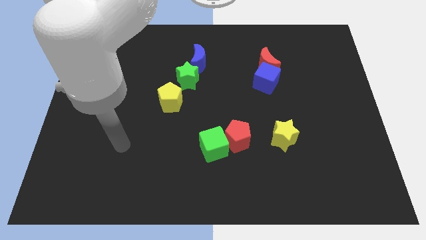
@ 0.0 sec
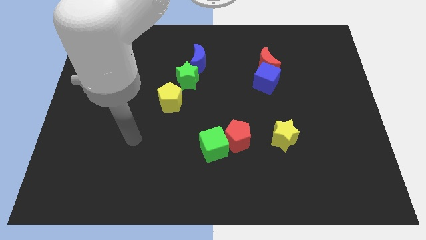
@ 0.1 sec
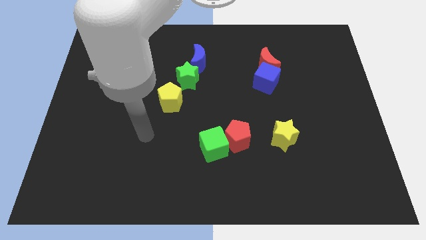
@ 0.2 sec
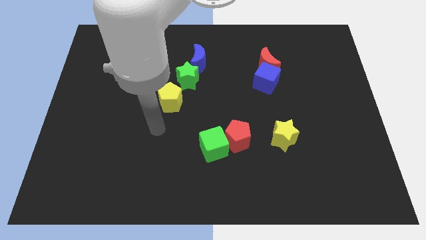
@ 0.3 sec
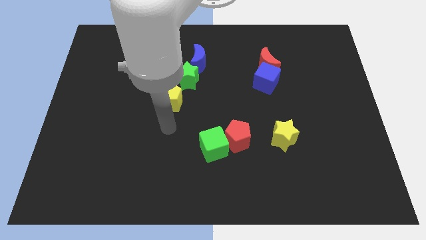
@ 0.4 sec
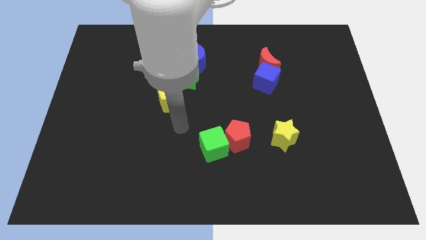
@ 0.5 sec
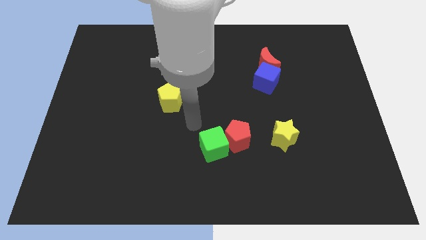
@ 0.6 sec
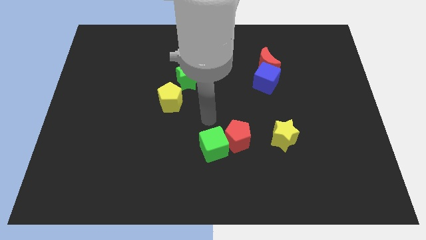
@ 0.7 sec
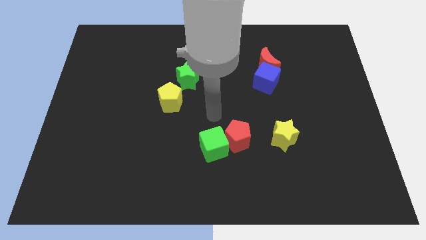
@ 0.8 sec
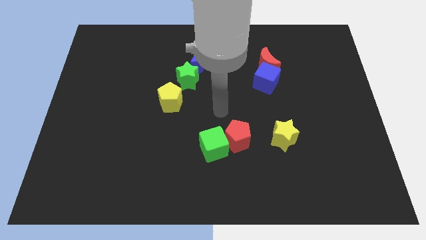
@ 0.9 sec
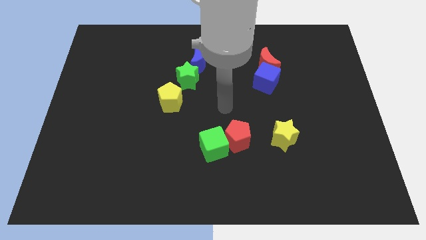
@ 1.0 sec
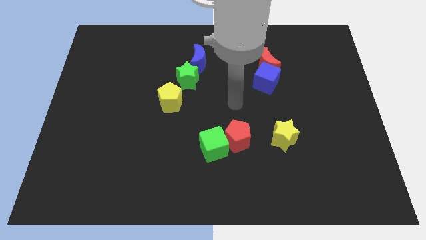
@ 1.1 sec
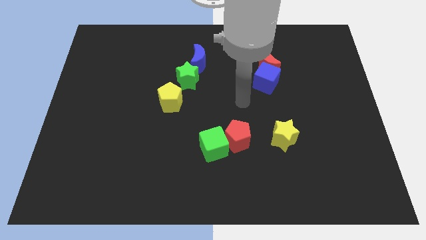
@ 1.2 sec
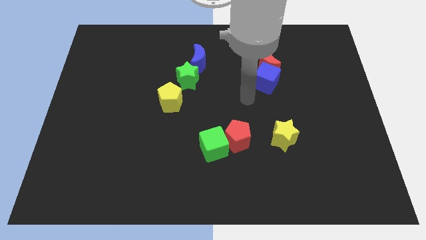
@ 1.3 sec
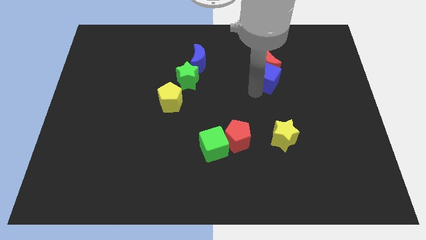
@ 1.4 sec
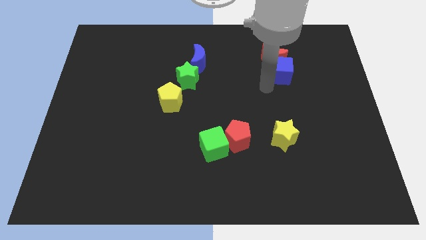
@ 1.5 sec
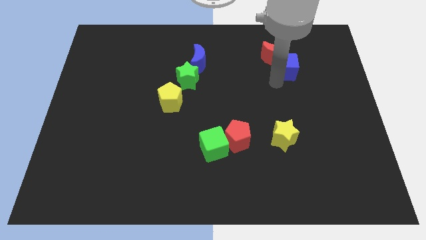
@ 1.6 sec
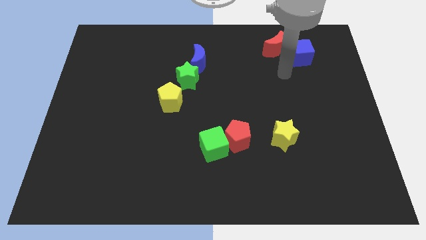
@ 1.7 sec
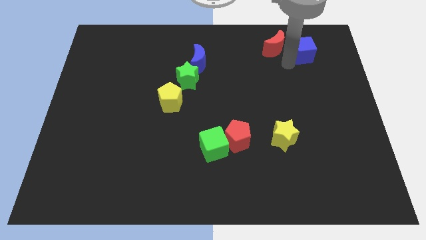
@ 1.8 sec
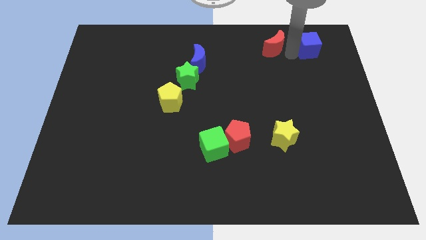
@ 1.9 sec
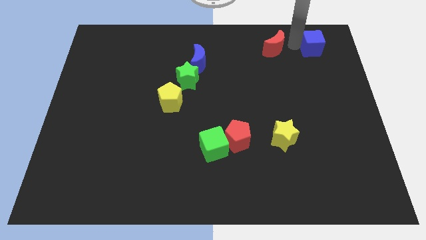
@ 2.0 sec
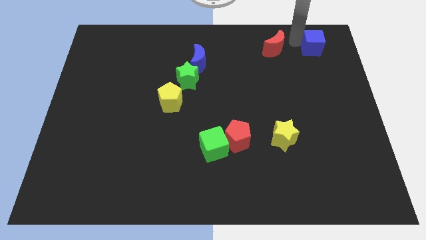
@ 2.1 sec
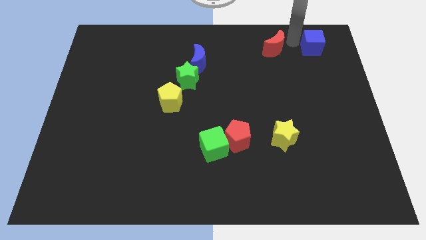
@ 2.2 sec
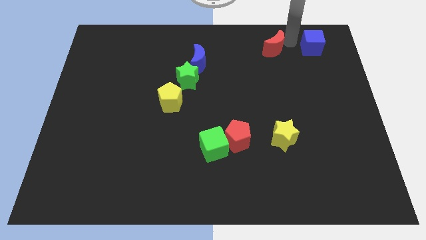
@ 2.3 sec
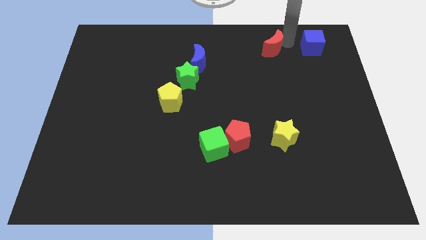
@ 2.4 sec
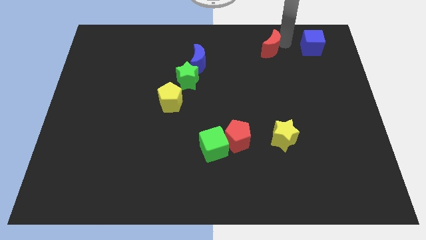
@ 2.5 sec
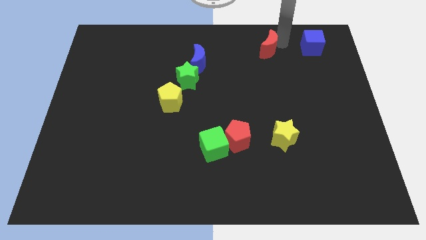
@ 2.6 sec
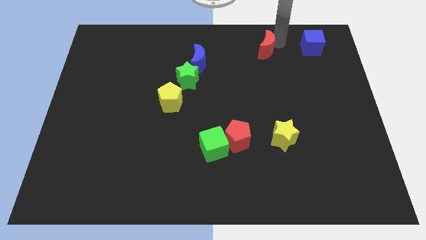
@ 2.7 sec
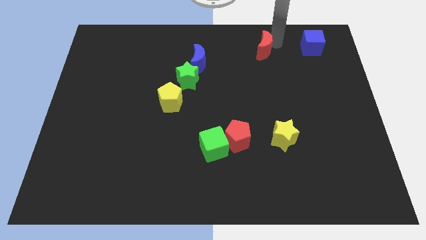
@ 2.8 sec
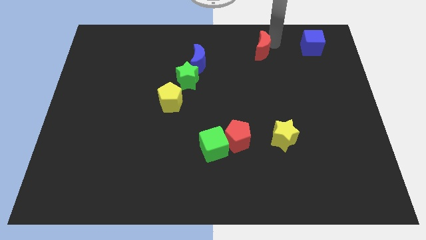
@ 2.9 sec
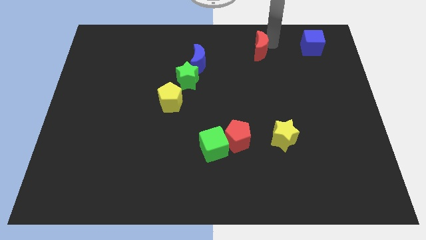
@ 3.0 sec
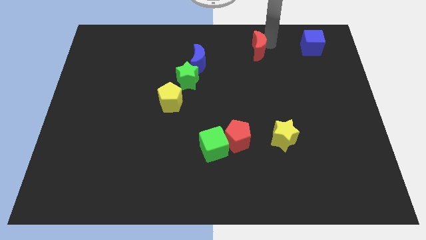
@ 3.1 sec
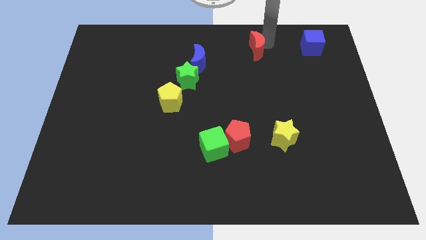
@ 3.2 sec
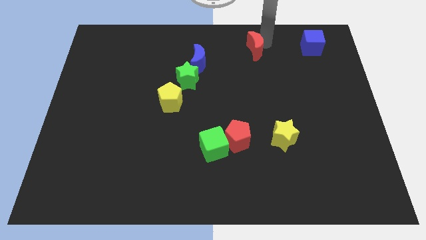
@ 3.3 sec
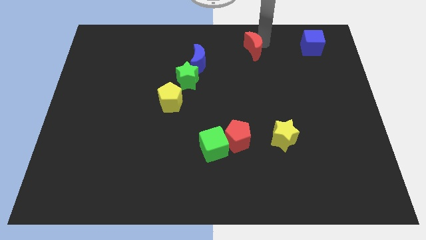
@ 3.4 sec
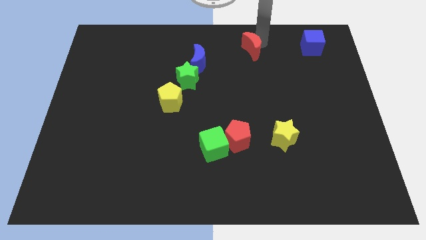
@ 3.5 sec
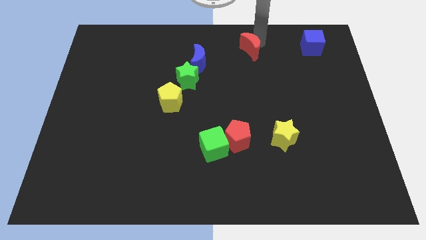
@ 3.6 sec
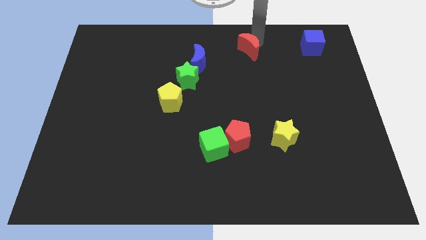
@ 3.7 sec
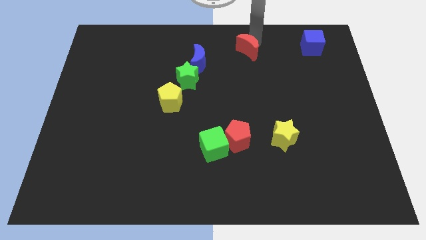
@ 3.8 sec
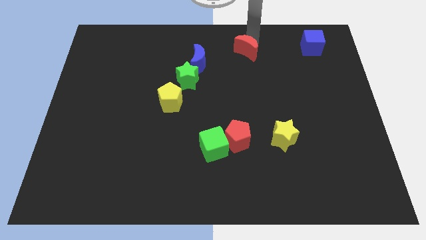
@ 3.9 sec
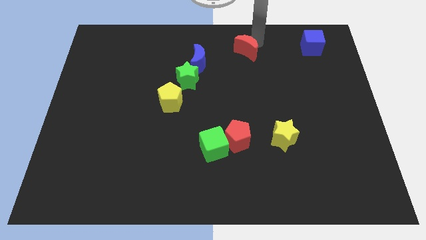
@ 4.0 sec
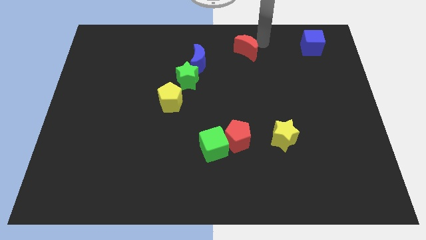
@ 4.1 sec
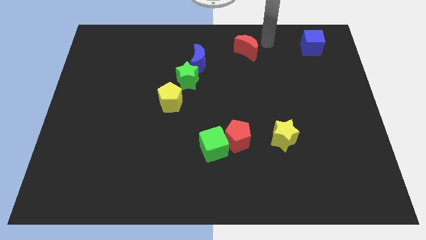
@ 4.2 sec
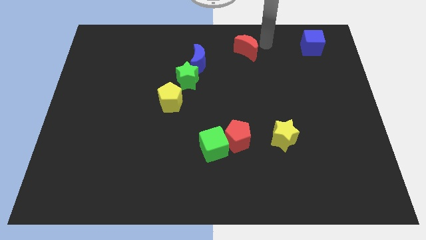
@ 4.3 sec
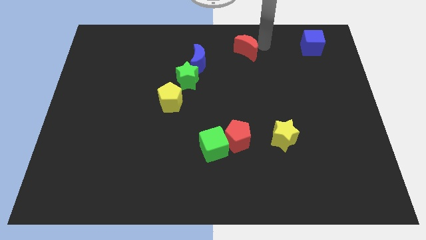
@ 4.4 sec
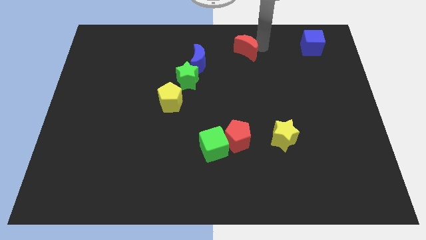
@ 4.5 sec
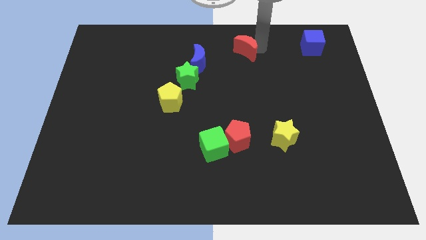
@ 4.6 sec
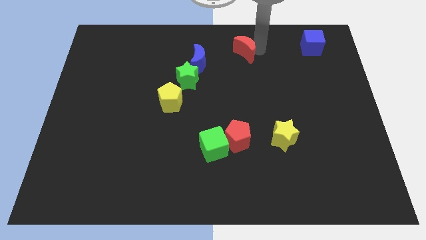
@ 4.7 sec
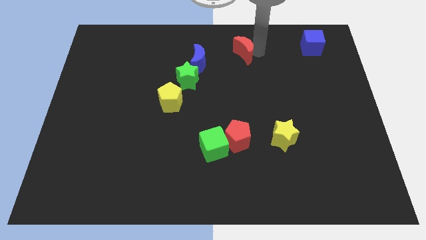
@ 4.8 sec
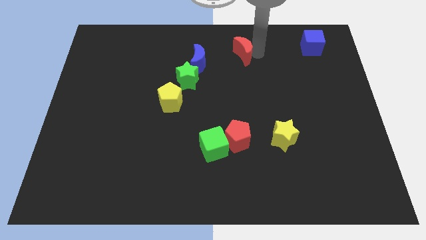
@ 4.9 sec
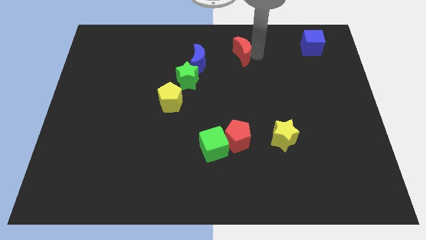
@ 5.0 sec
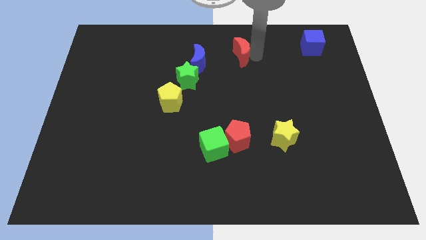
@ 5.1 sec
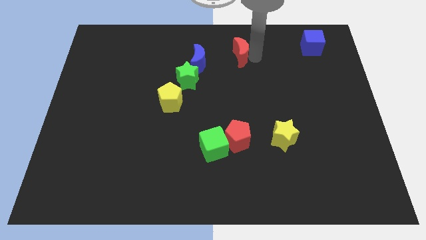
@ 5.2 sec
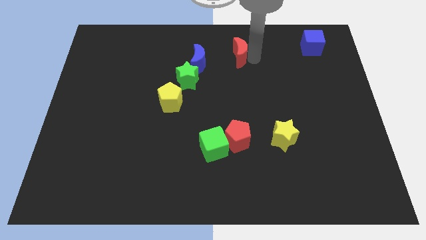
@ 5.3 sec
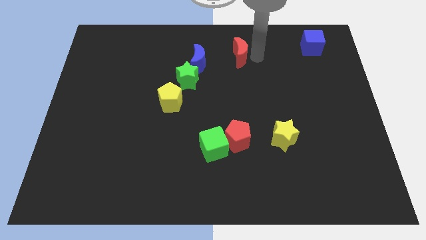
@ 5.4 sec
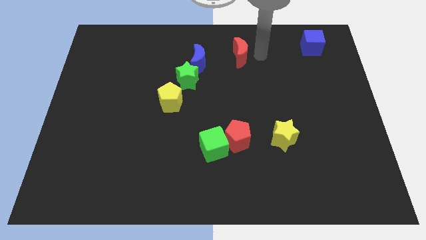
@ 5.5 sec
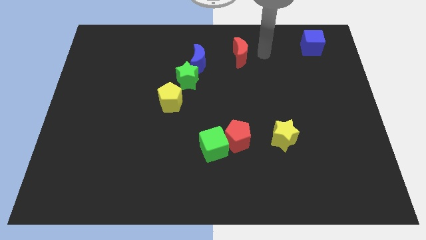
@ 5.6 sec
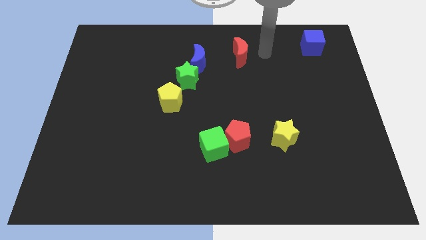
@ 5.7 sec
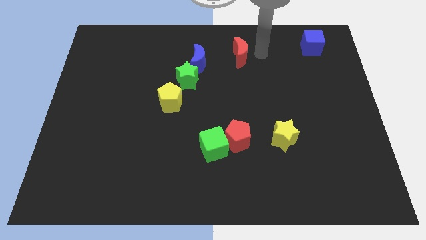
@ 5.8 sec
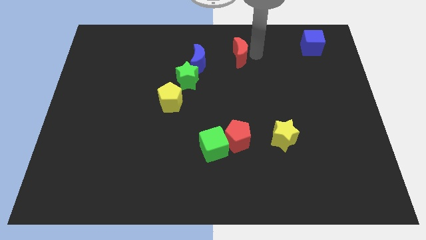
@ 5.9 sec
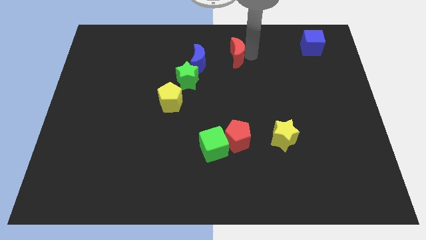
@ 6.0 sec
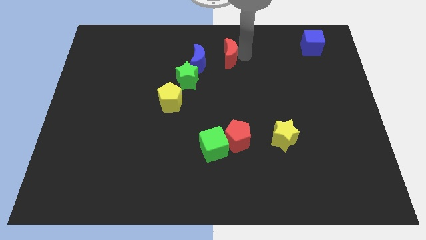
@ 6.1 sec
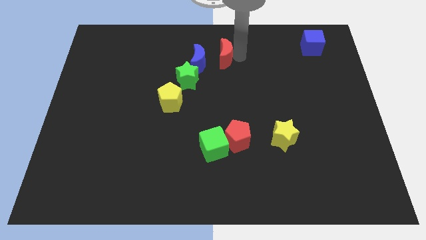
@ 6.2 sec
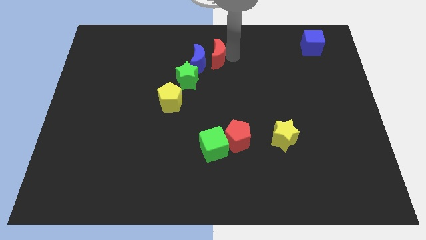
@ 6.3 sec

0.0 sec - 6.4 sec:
push the red moon towards the blue moon

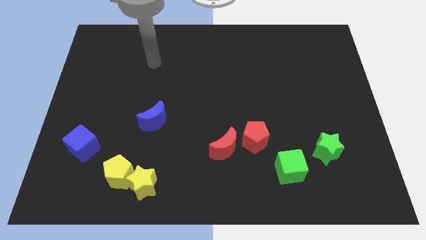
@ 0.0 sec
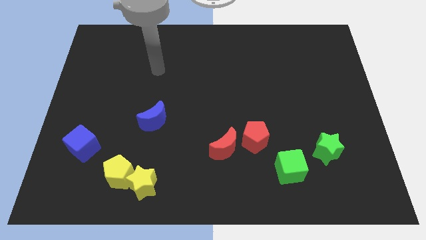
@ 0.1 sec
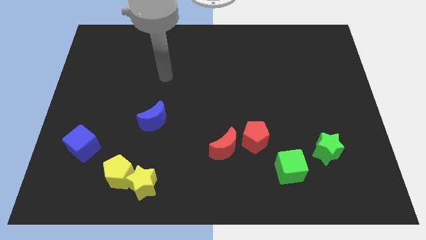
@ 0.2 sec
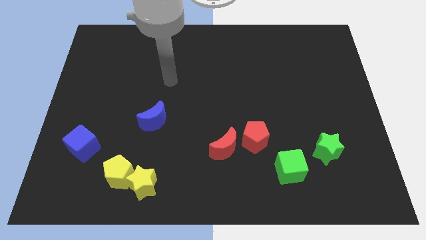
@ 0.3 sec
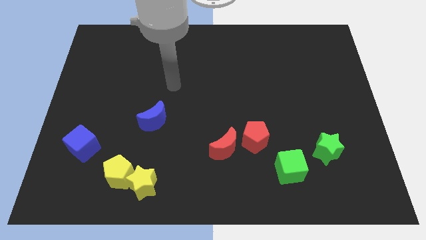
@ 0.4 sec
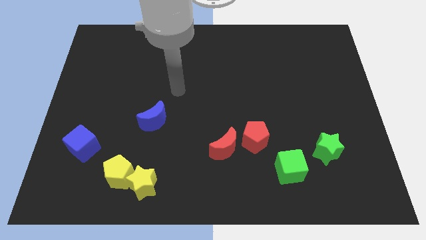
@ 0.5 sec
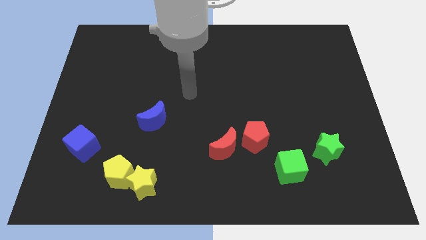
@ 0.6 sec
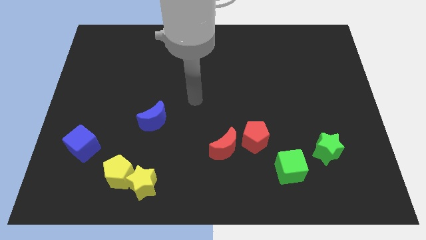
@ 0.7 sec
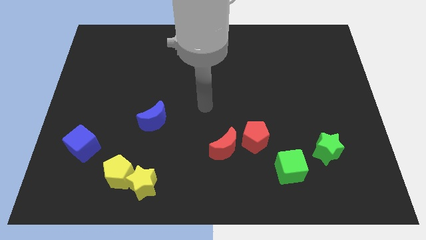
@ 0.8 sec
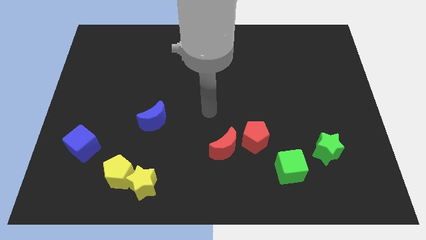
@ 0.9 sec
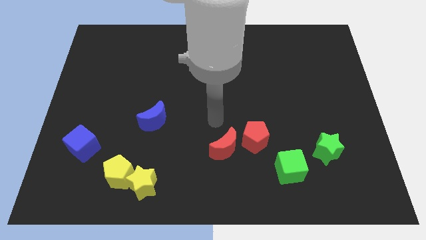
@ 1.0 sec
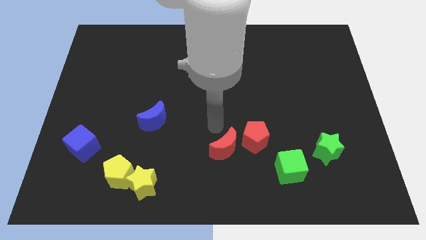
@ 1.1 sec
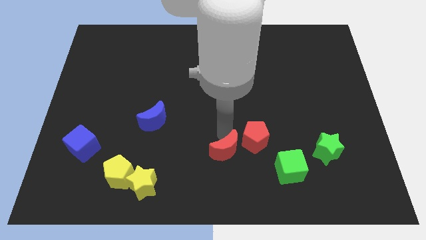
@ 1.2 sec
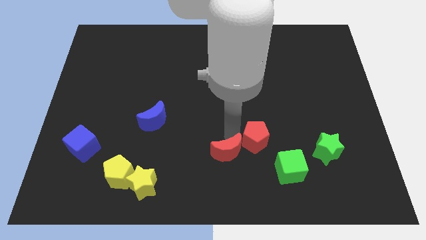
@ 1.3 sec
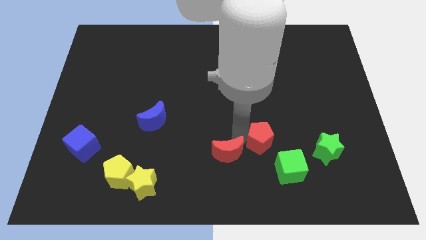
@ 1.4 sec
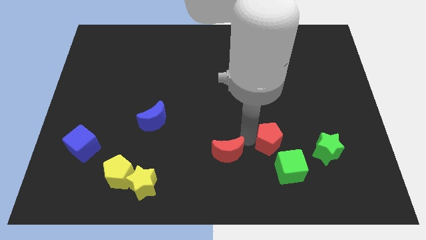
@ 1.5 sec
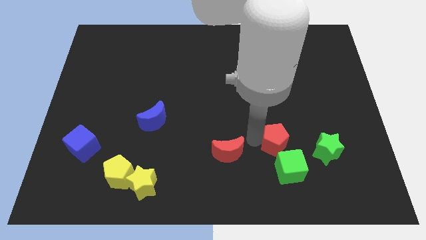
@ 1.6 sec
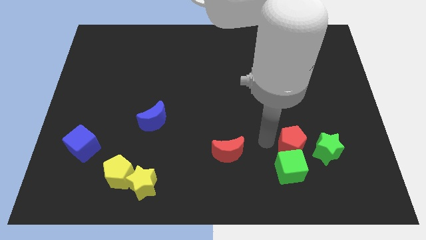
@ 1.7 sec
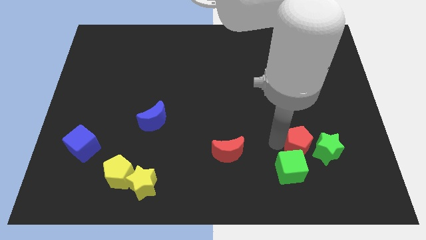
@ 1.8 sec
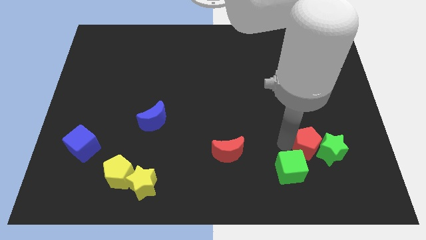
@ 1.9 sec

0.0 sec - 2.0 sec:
slide the red pentagon close to the green star
